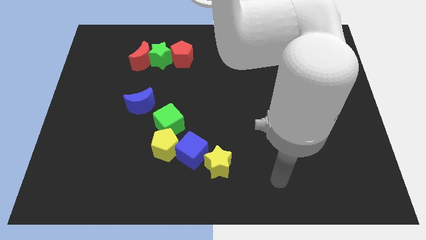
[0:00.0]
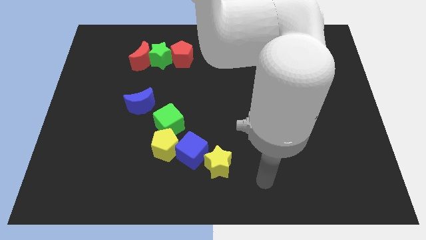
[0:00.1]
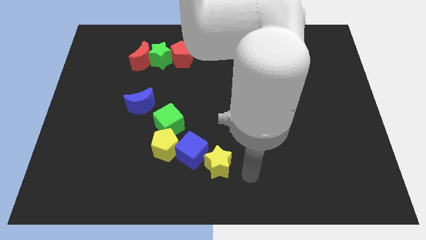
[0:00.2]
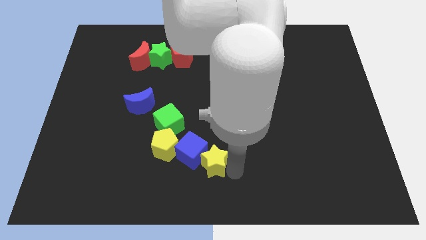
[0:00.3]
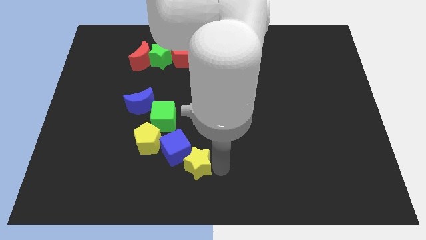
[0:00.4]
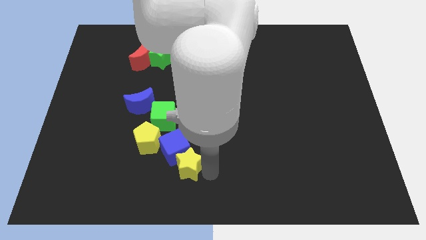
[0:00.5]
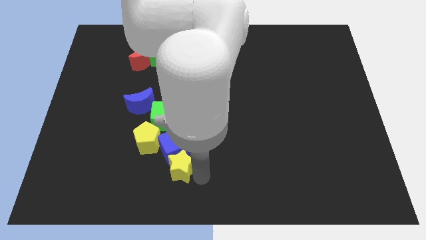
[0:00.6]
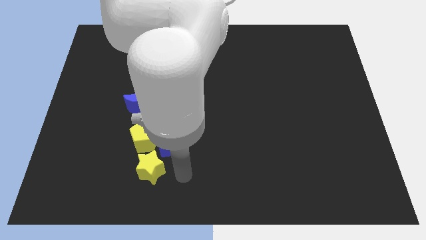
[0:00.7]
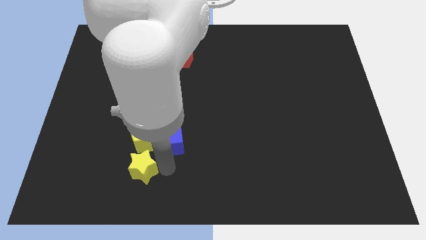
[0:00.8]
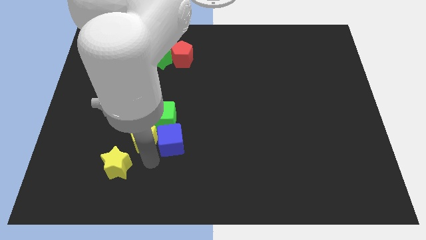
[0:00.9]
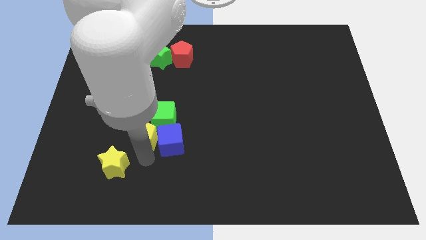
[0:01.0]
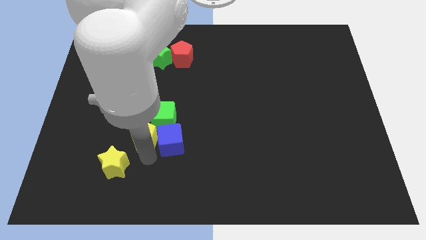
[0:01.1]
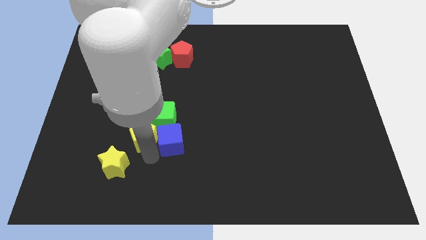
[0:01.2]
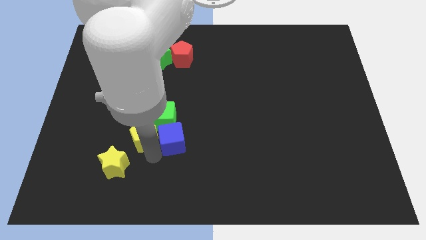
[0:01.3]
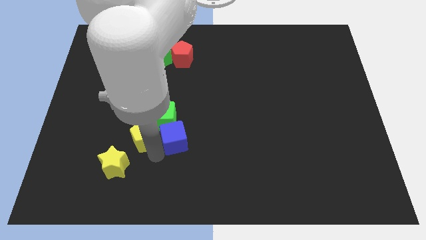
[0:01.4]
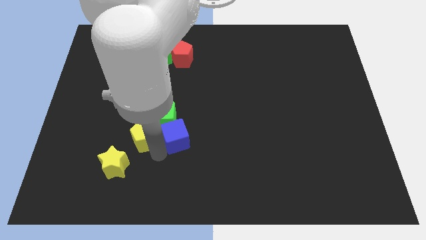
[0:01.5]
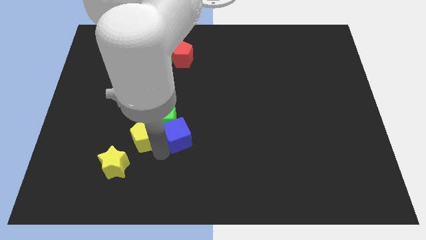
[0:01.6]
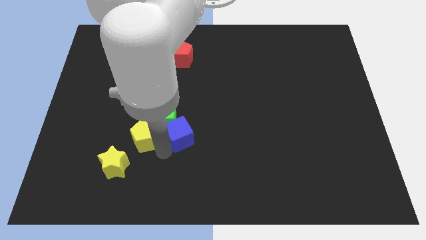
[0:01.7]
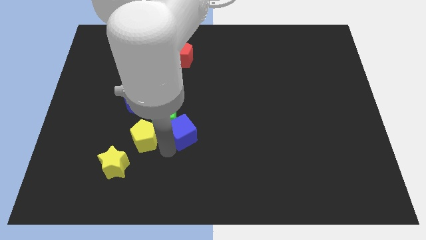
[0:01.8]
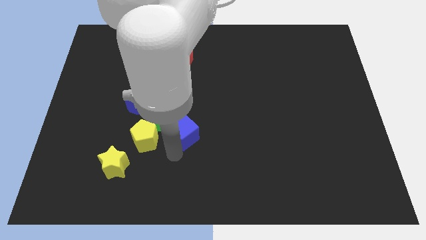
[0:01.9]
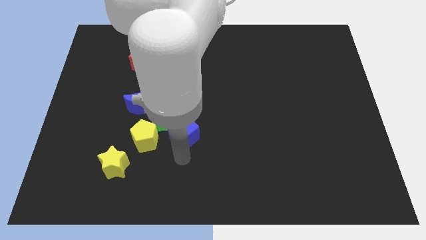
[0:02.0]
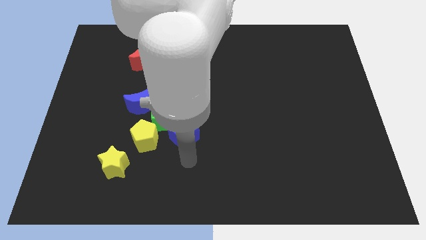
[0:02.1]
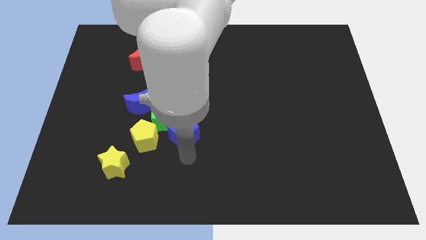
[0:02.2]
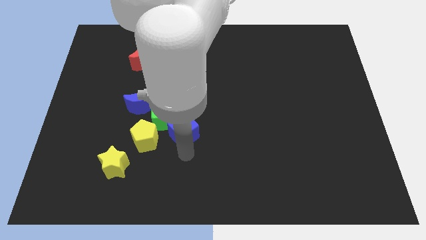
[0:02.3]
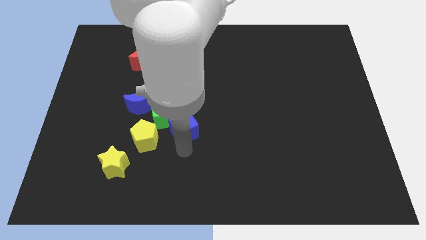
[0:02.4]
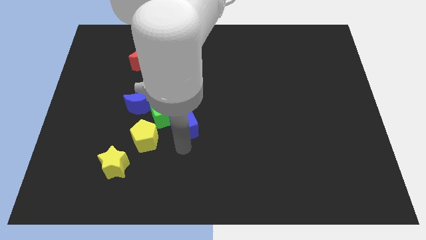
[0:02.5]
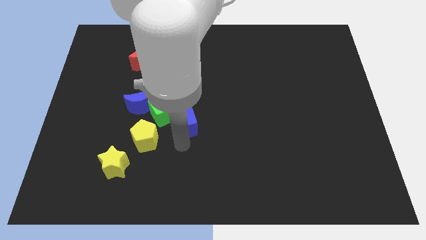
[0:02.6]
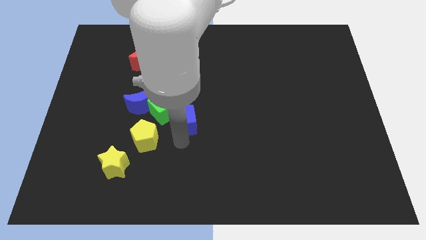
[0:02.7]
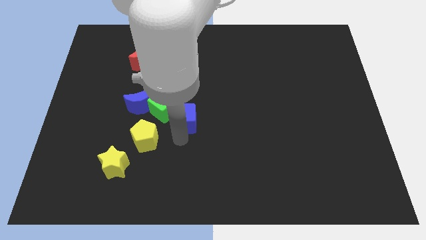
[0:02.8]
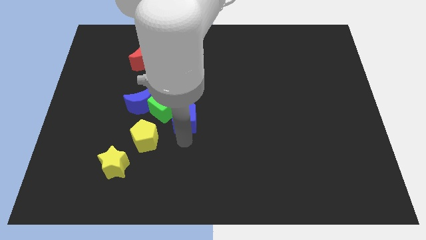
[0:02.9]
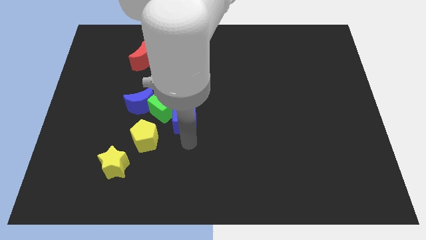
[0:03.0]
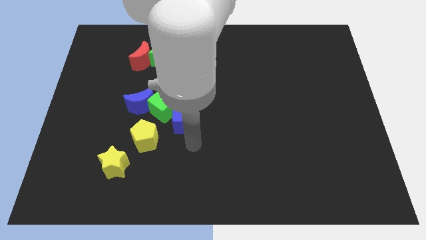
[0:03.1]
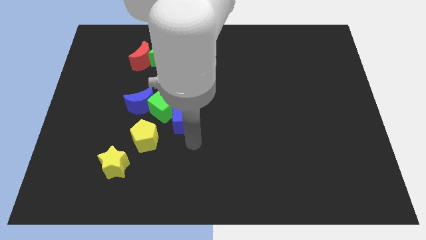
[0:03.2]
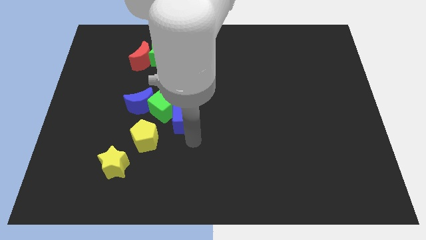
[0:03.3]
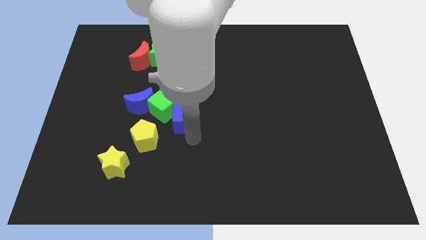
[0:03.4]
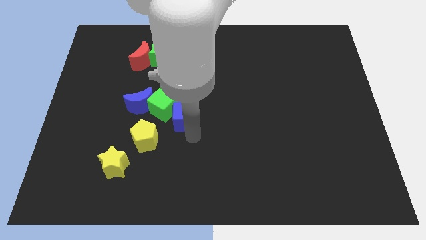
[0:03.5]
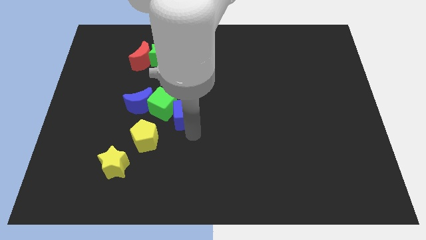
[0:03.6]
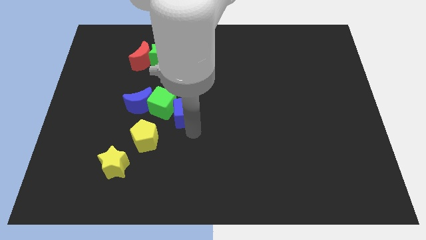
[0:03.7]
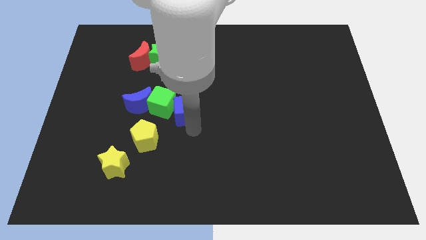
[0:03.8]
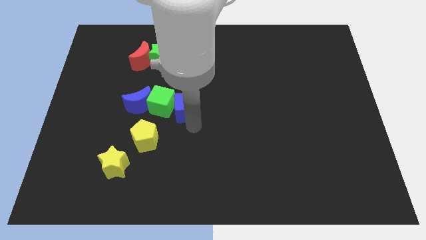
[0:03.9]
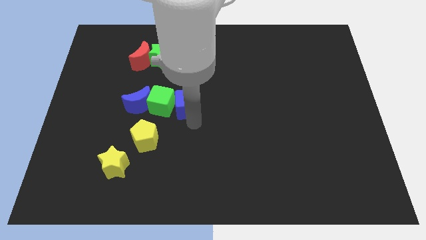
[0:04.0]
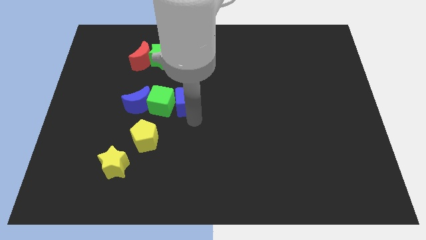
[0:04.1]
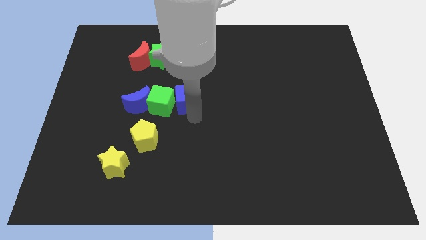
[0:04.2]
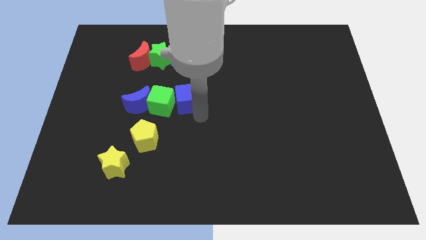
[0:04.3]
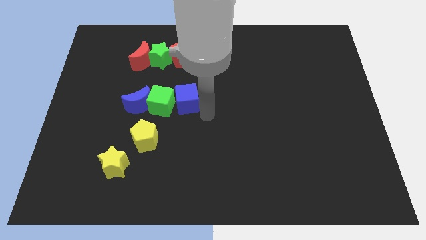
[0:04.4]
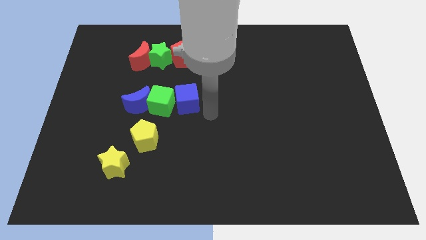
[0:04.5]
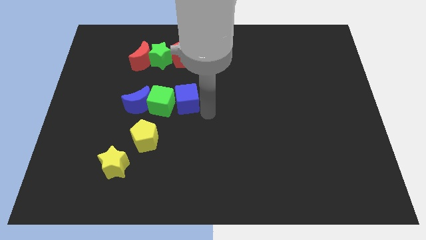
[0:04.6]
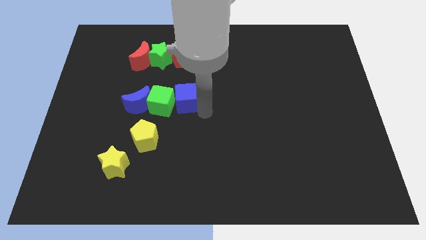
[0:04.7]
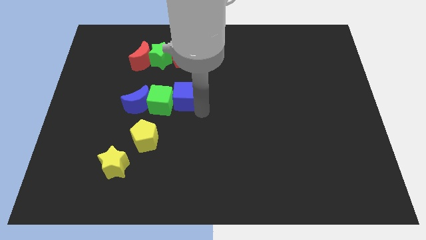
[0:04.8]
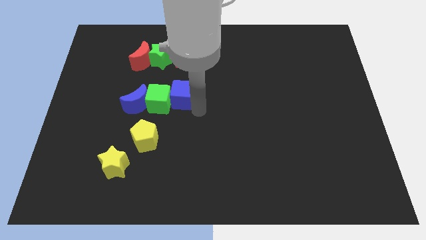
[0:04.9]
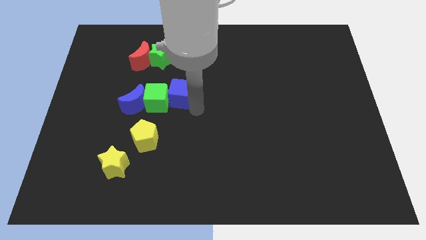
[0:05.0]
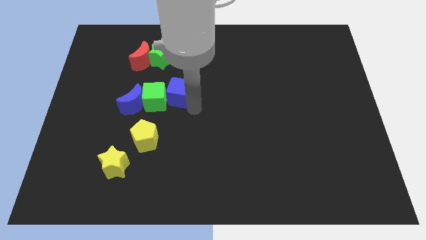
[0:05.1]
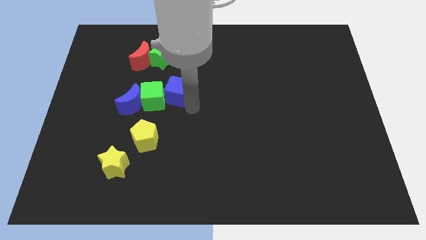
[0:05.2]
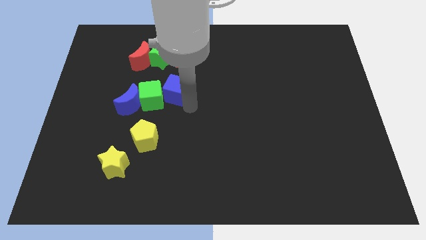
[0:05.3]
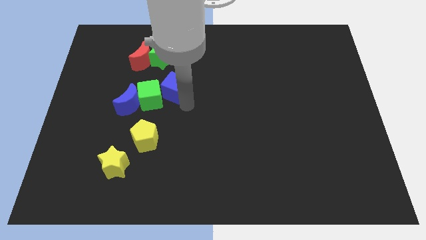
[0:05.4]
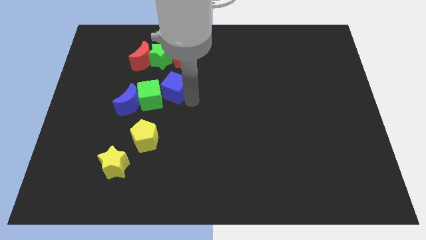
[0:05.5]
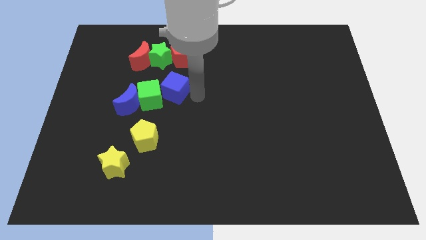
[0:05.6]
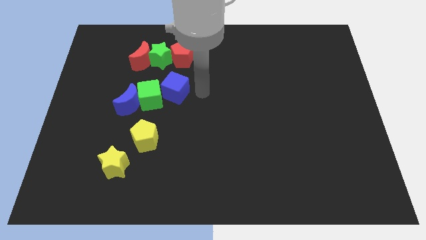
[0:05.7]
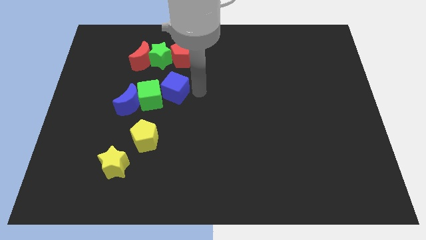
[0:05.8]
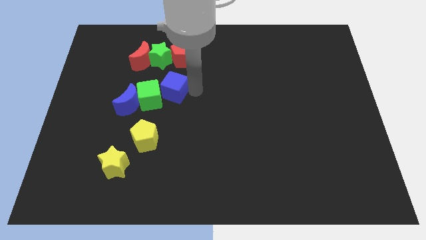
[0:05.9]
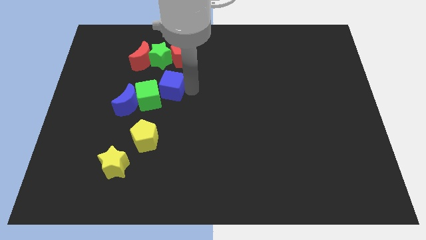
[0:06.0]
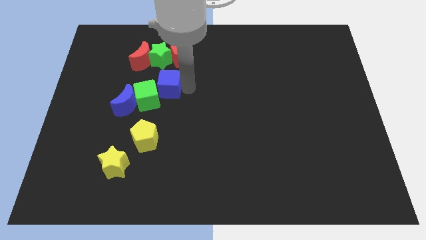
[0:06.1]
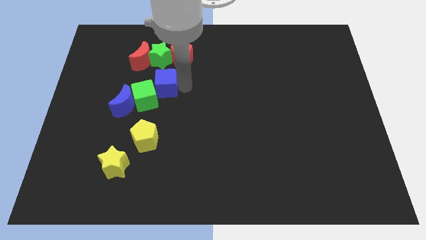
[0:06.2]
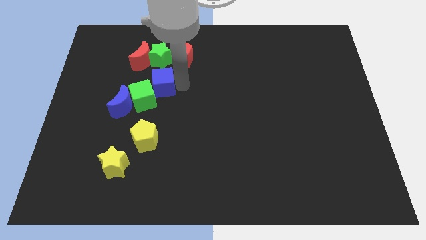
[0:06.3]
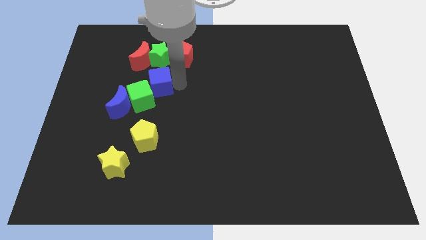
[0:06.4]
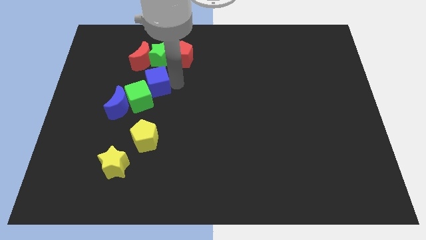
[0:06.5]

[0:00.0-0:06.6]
push the blue cube to the bottom of the red moon

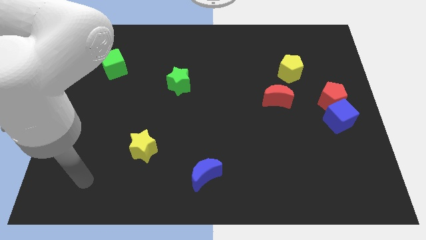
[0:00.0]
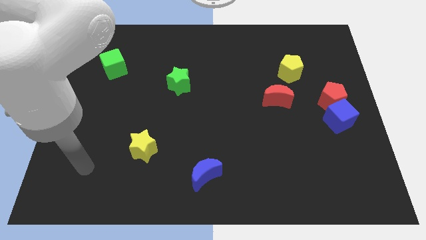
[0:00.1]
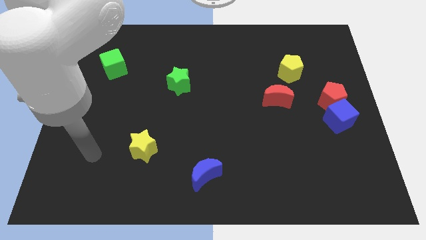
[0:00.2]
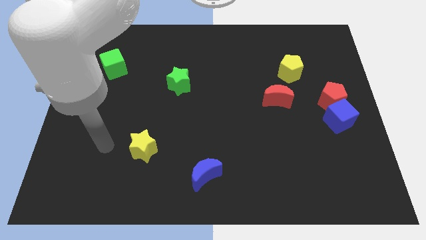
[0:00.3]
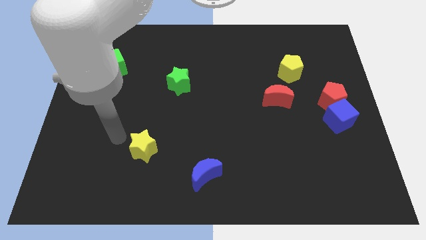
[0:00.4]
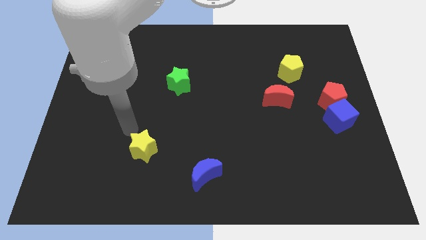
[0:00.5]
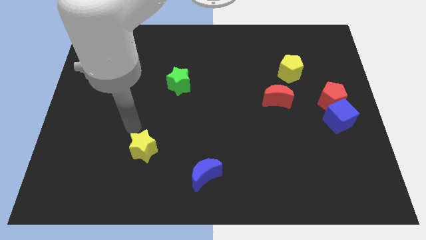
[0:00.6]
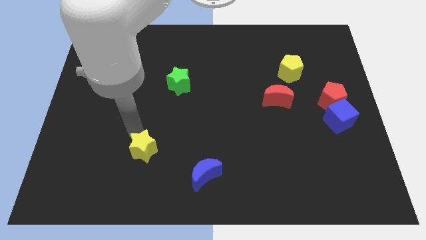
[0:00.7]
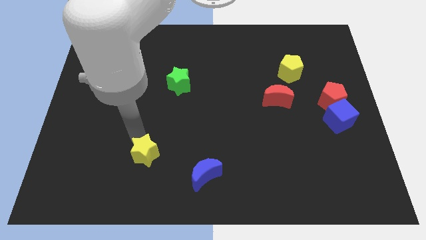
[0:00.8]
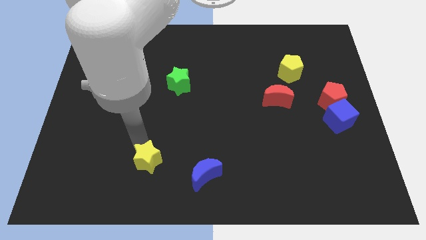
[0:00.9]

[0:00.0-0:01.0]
push the yellow star left of the blue moon
